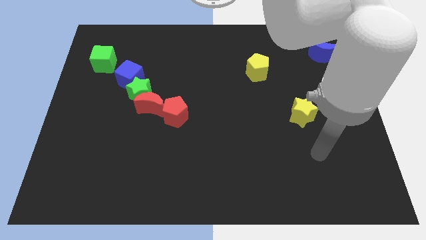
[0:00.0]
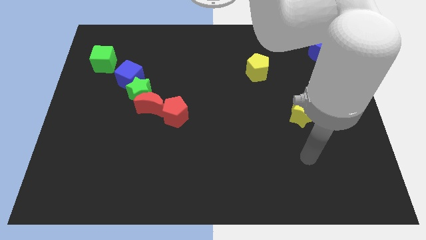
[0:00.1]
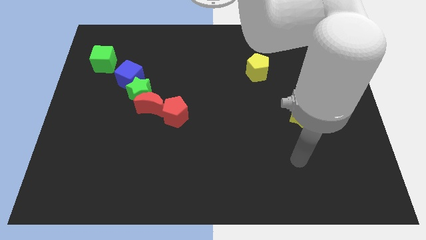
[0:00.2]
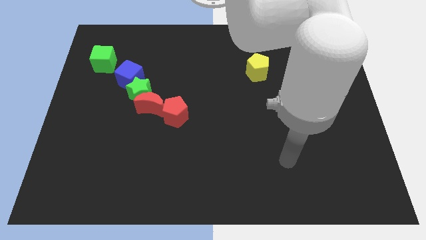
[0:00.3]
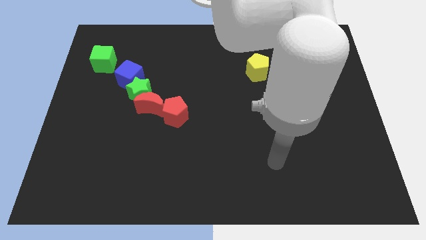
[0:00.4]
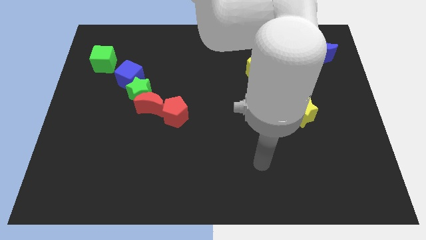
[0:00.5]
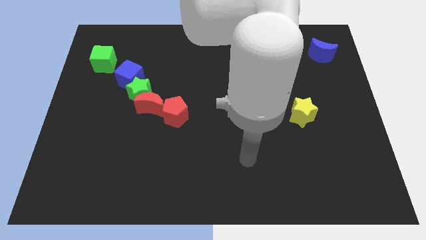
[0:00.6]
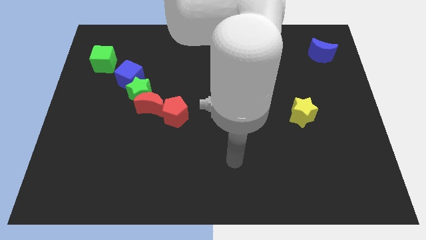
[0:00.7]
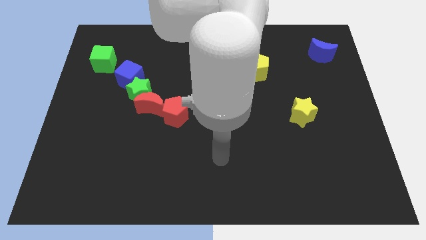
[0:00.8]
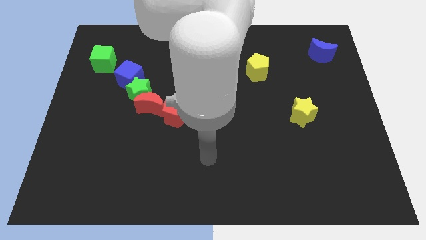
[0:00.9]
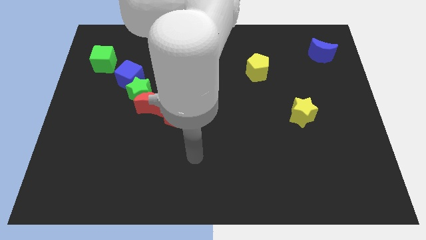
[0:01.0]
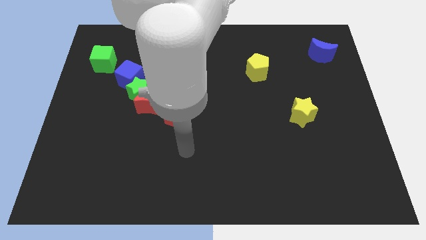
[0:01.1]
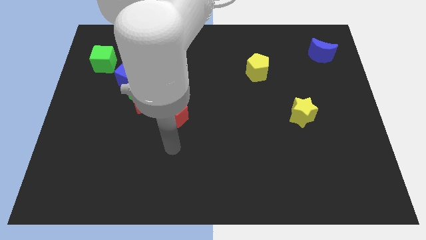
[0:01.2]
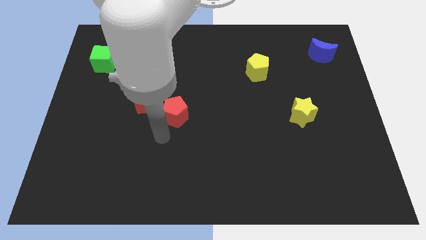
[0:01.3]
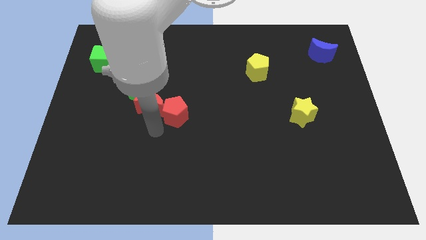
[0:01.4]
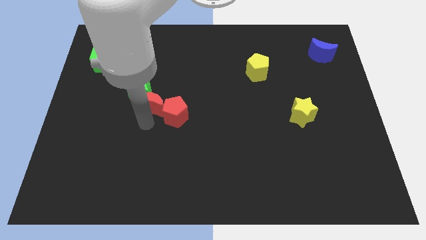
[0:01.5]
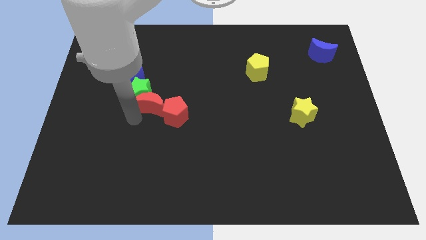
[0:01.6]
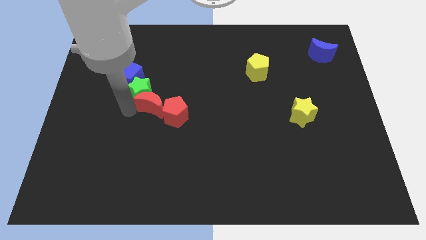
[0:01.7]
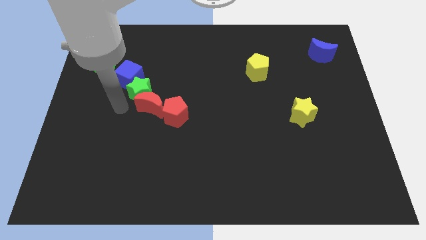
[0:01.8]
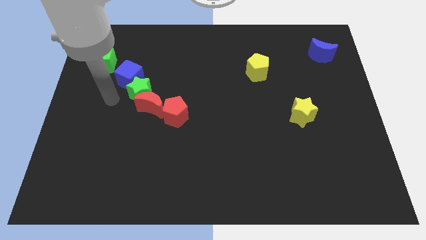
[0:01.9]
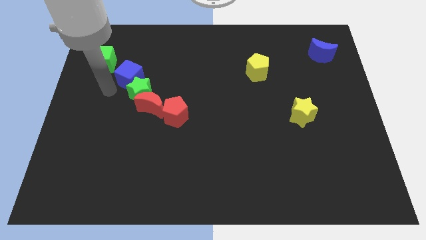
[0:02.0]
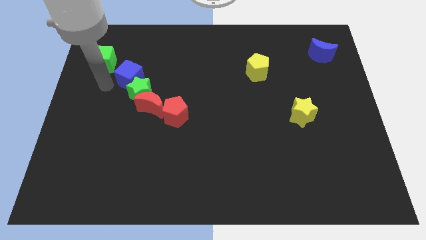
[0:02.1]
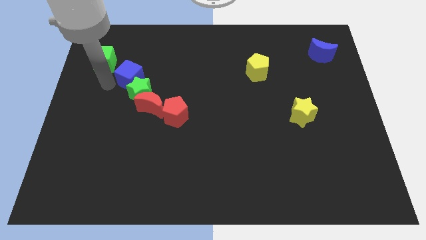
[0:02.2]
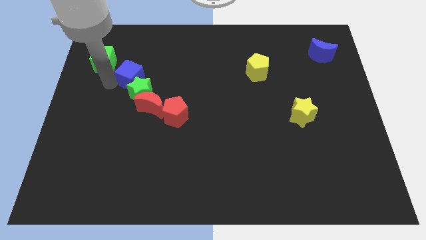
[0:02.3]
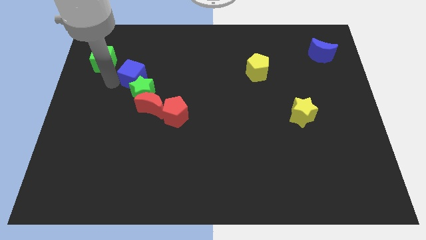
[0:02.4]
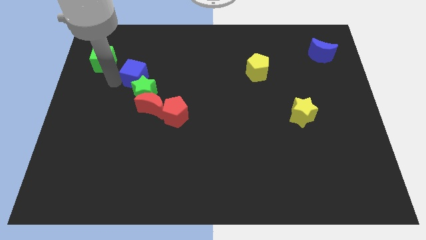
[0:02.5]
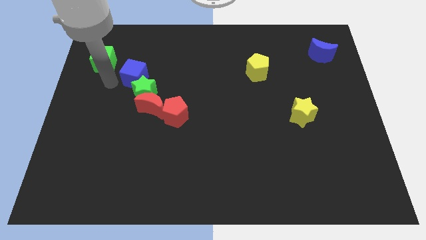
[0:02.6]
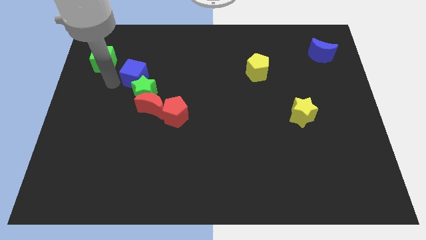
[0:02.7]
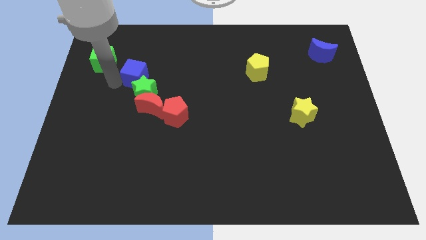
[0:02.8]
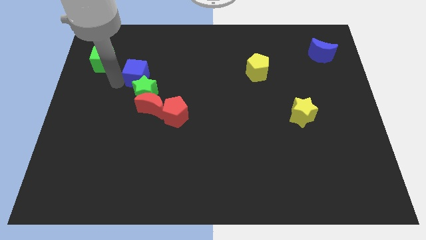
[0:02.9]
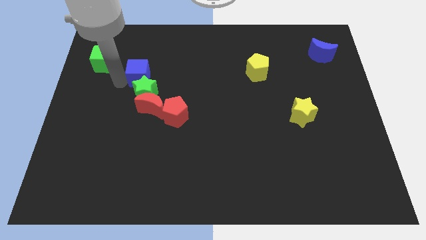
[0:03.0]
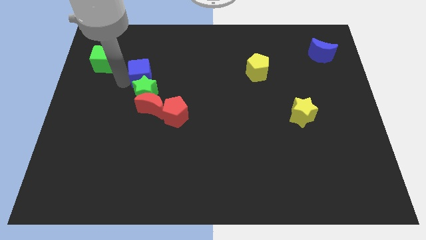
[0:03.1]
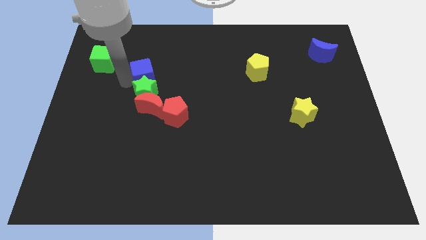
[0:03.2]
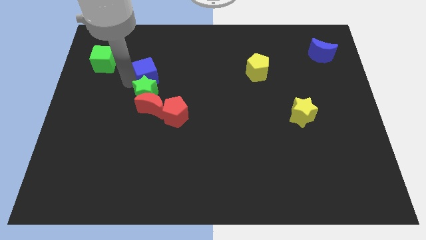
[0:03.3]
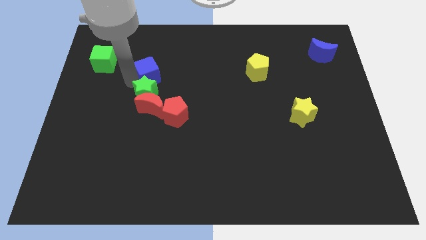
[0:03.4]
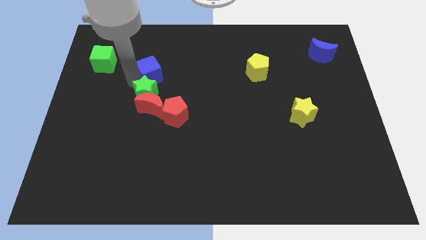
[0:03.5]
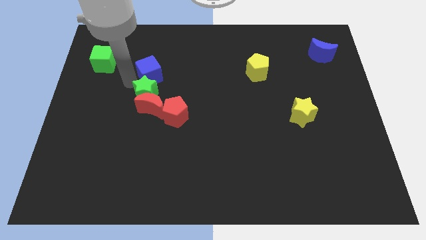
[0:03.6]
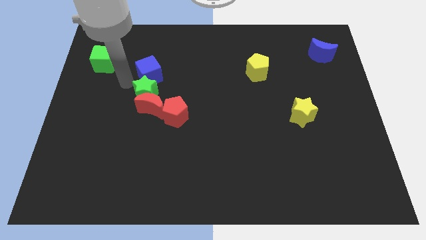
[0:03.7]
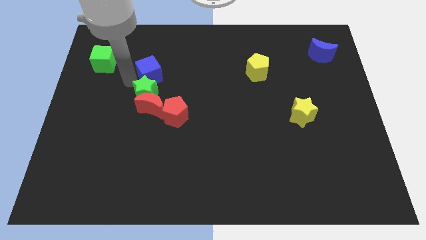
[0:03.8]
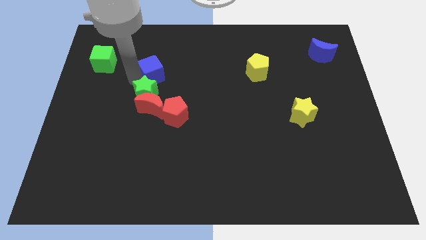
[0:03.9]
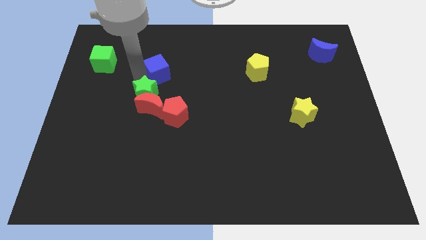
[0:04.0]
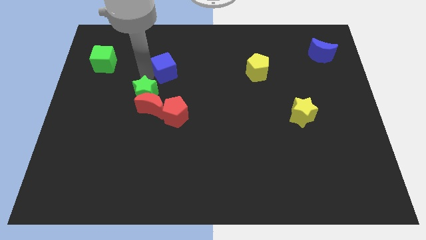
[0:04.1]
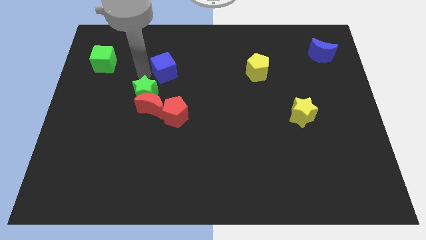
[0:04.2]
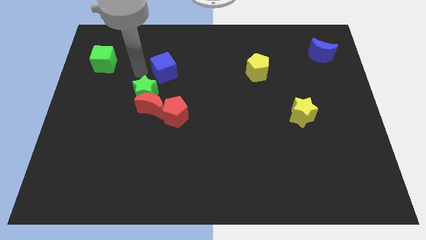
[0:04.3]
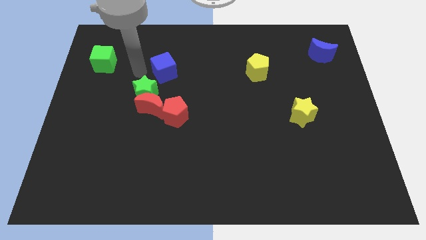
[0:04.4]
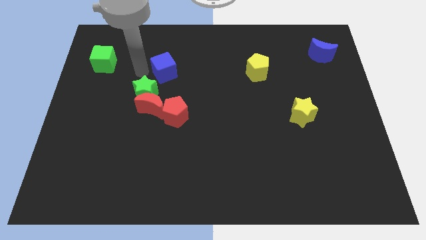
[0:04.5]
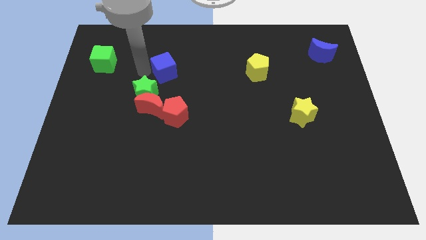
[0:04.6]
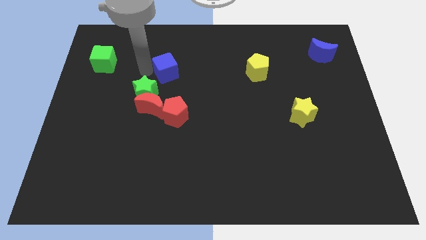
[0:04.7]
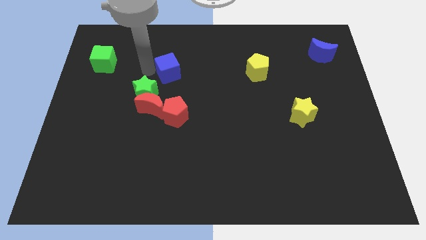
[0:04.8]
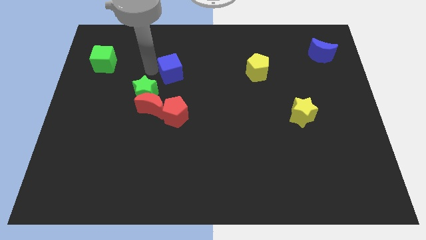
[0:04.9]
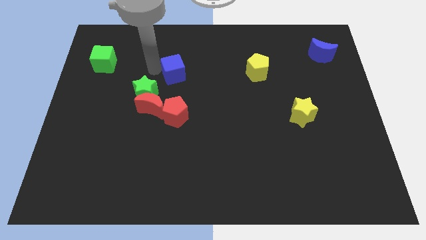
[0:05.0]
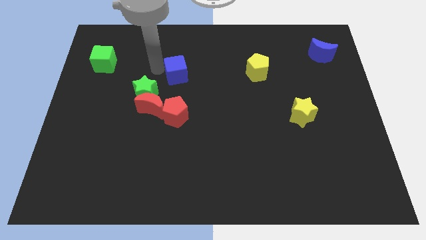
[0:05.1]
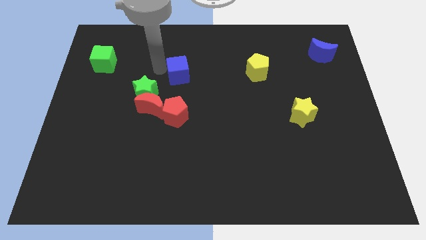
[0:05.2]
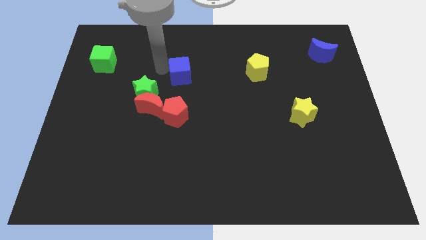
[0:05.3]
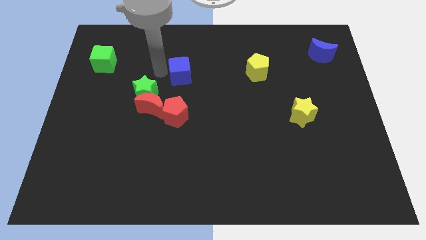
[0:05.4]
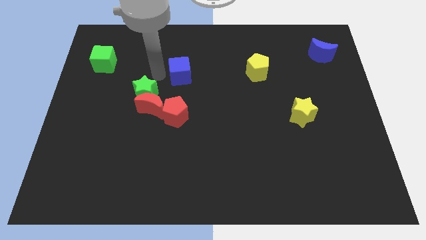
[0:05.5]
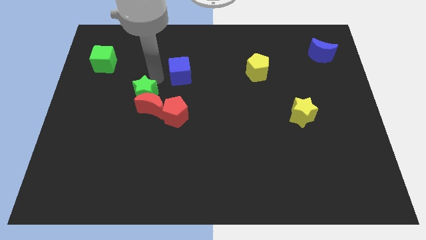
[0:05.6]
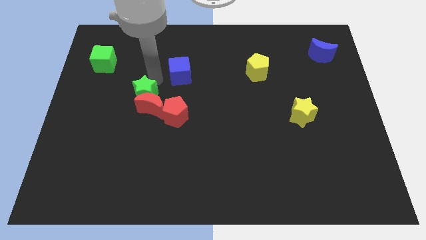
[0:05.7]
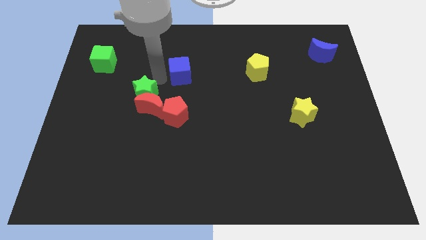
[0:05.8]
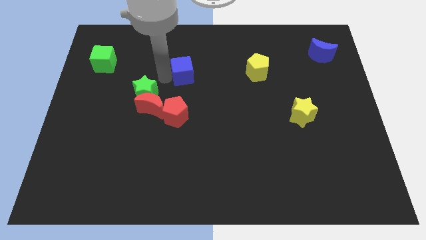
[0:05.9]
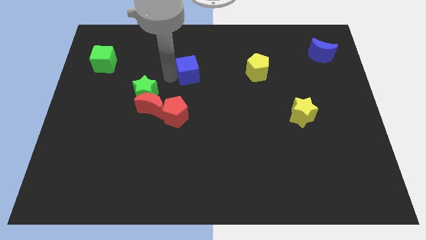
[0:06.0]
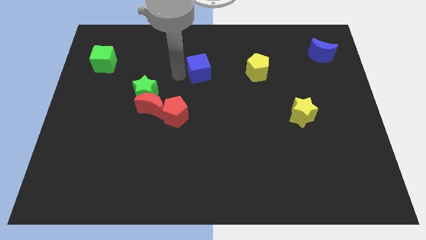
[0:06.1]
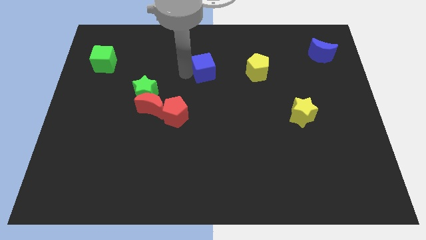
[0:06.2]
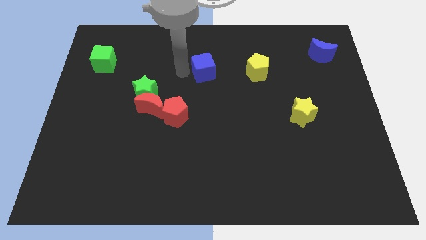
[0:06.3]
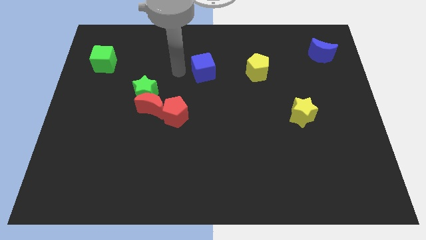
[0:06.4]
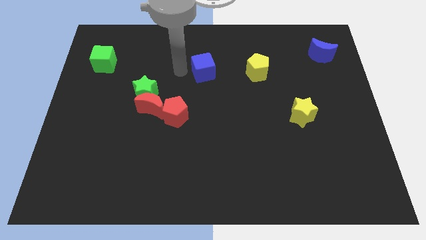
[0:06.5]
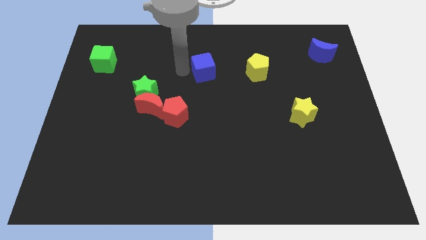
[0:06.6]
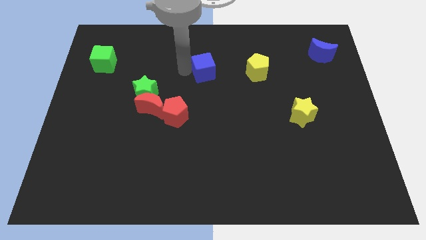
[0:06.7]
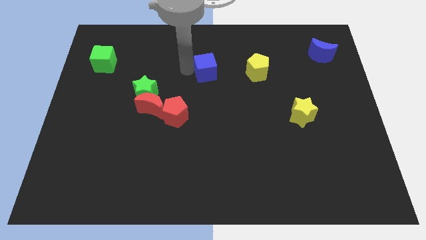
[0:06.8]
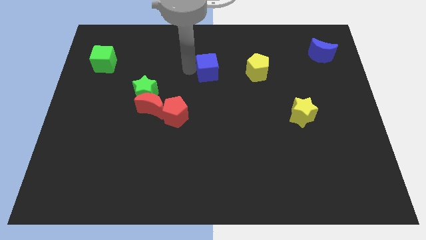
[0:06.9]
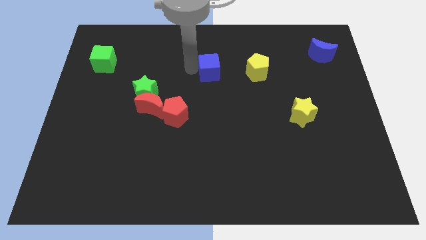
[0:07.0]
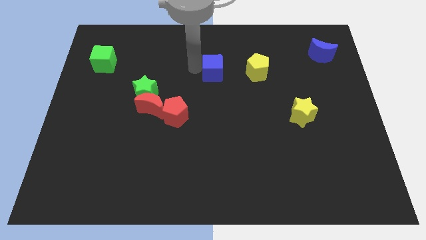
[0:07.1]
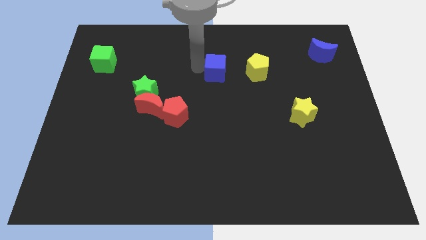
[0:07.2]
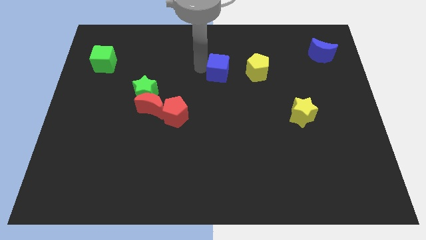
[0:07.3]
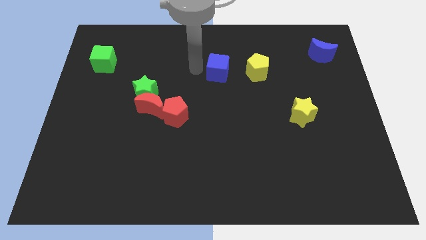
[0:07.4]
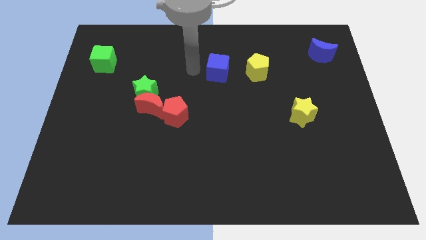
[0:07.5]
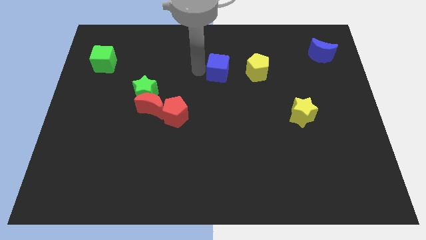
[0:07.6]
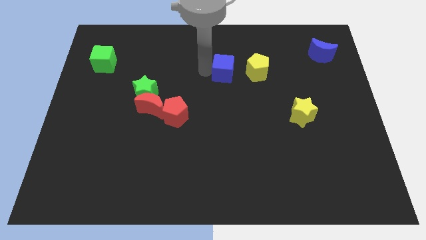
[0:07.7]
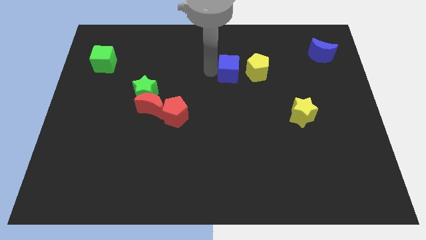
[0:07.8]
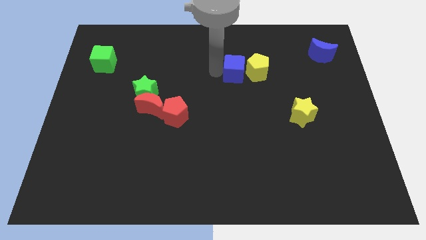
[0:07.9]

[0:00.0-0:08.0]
slide the blue cube close to the yellow pentagon
